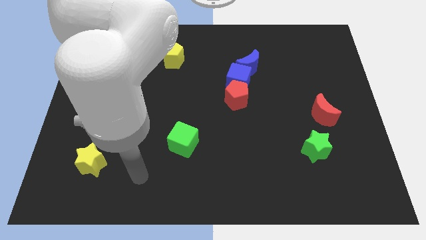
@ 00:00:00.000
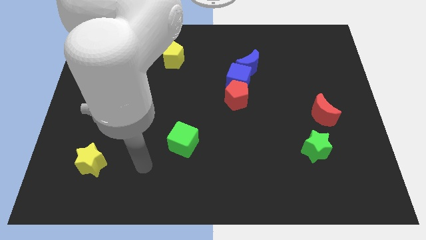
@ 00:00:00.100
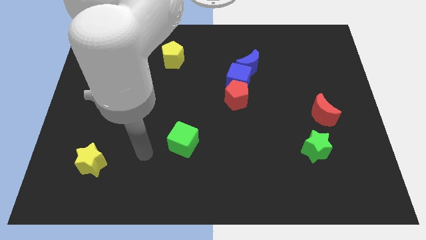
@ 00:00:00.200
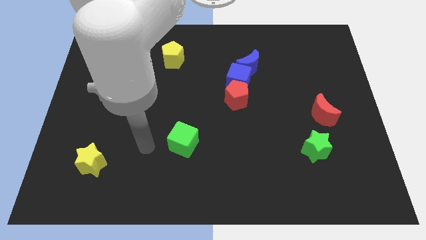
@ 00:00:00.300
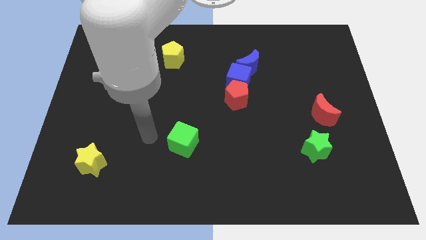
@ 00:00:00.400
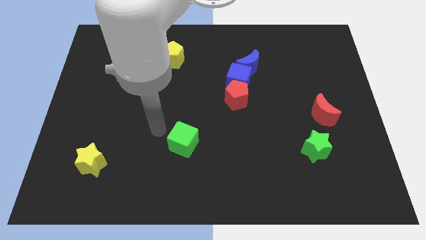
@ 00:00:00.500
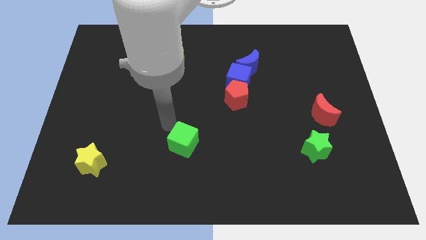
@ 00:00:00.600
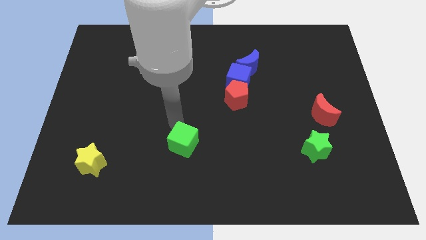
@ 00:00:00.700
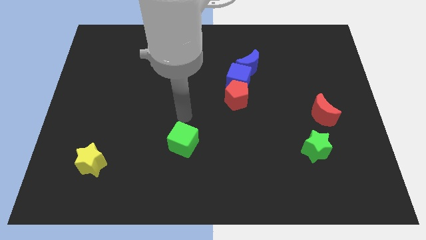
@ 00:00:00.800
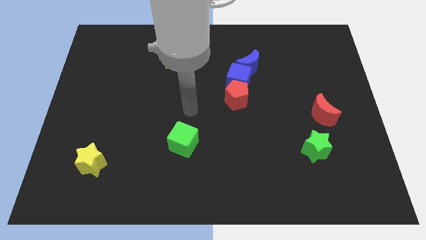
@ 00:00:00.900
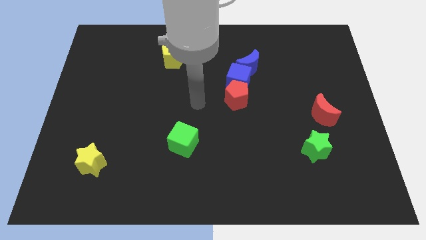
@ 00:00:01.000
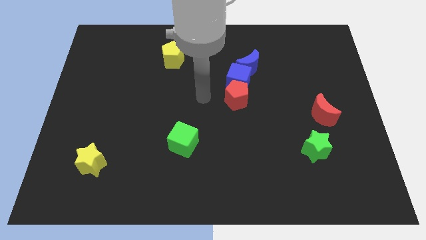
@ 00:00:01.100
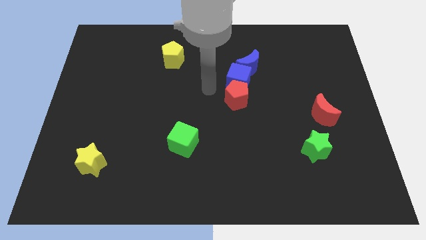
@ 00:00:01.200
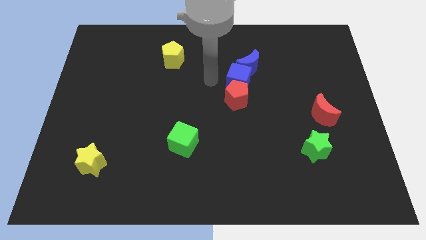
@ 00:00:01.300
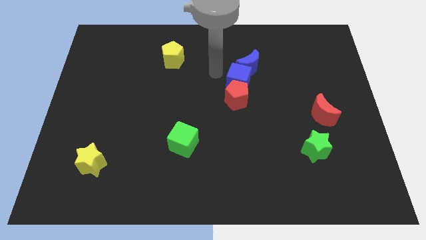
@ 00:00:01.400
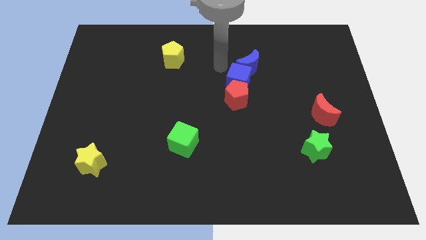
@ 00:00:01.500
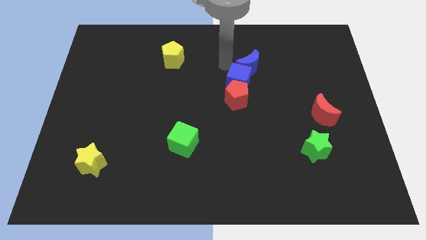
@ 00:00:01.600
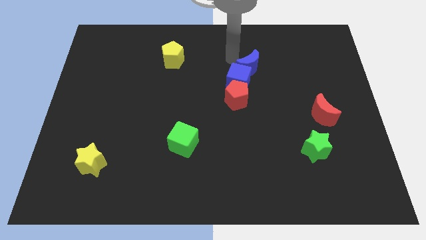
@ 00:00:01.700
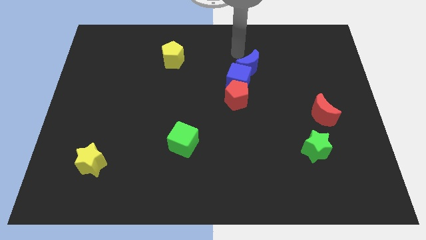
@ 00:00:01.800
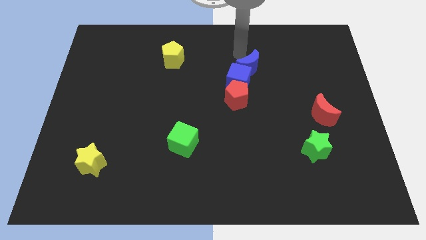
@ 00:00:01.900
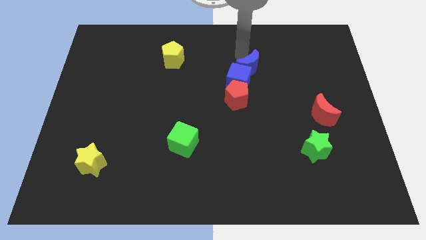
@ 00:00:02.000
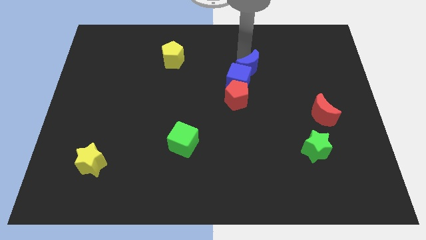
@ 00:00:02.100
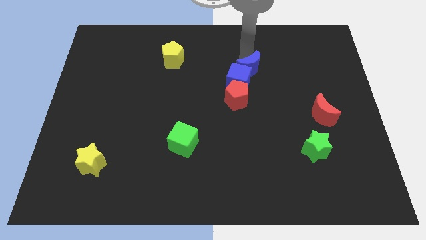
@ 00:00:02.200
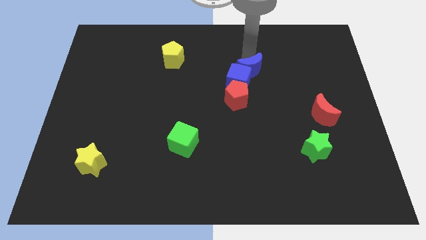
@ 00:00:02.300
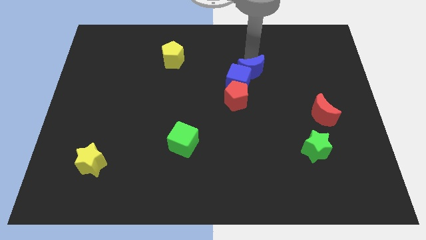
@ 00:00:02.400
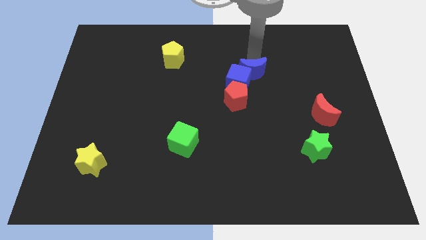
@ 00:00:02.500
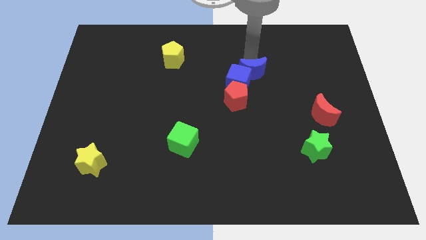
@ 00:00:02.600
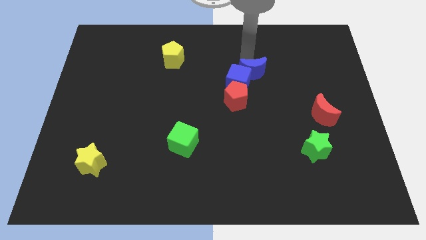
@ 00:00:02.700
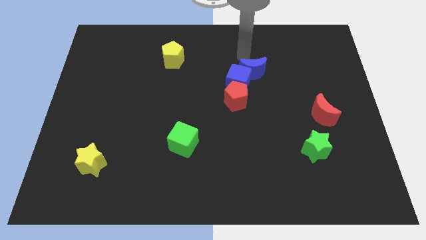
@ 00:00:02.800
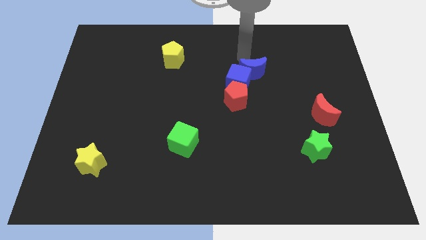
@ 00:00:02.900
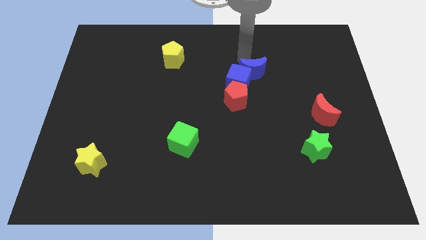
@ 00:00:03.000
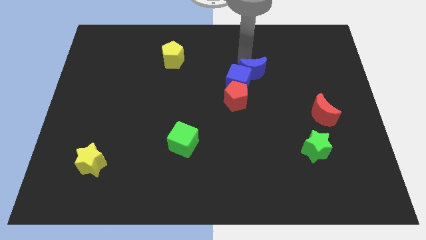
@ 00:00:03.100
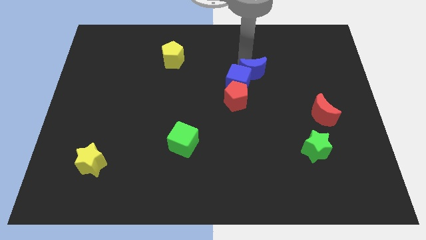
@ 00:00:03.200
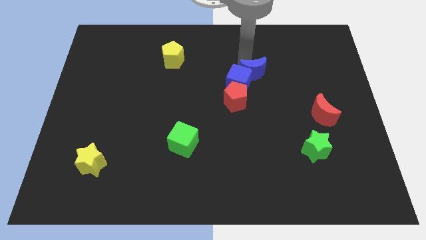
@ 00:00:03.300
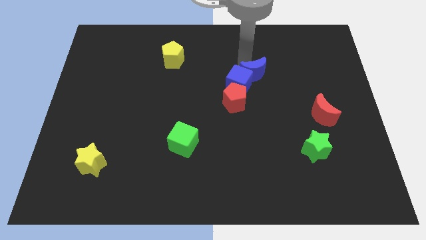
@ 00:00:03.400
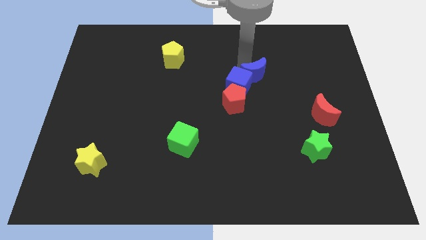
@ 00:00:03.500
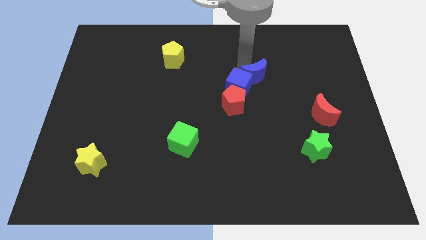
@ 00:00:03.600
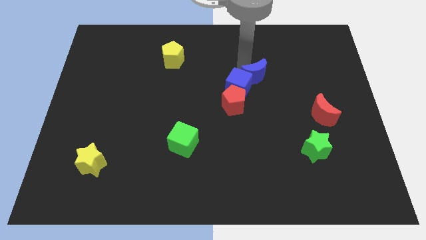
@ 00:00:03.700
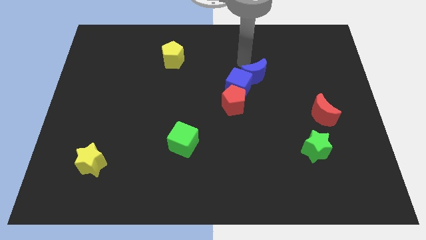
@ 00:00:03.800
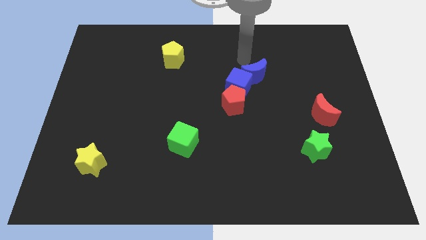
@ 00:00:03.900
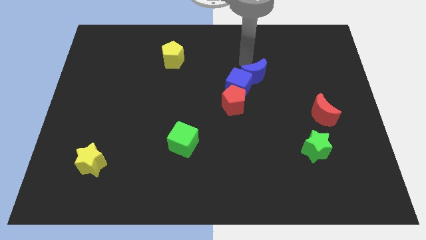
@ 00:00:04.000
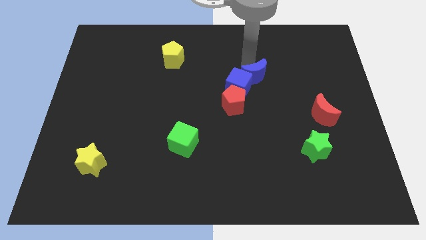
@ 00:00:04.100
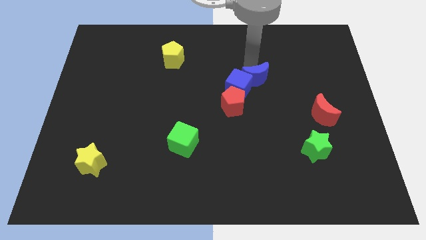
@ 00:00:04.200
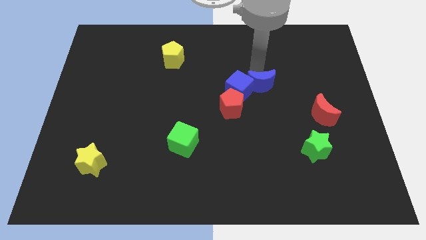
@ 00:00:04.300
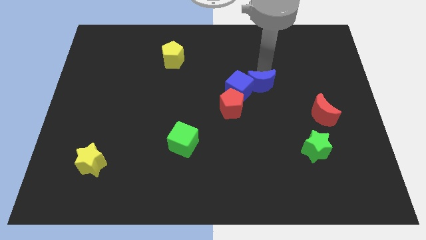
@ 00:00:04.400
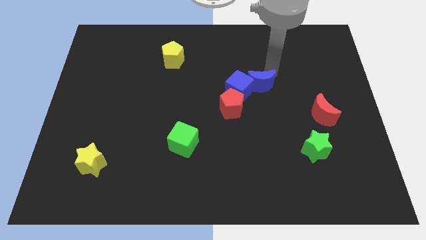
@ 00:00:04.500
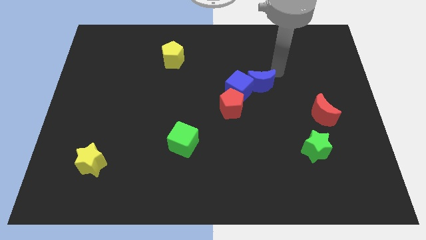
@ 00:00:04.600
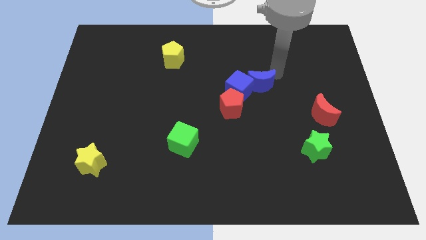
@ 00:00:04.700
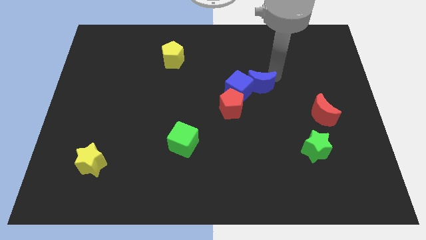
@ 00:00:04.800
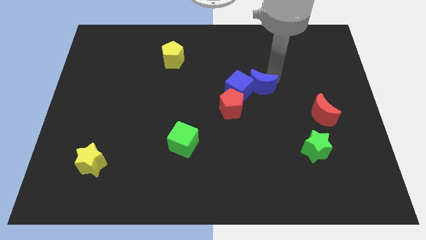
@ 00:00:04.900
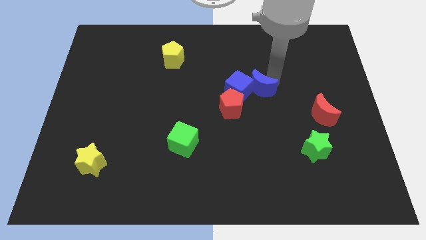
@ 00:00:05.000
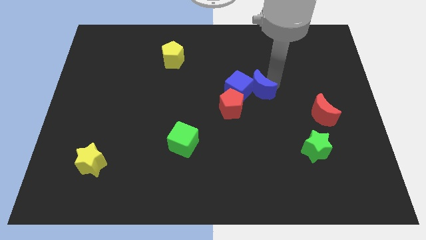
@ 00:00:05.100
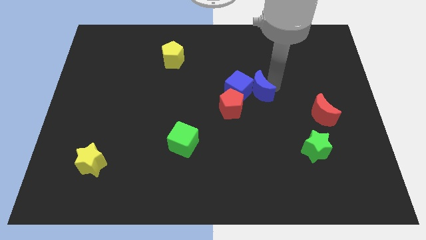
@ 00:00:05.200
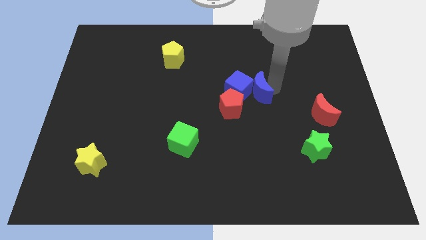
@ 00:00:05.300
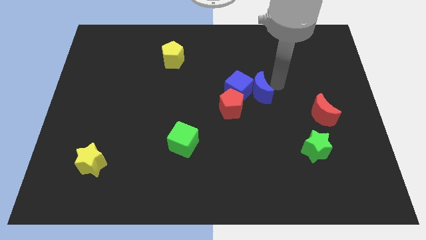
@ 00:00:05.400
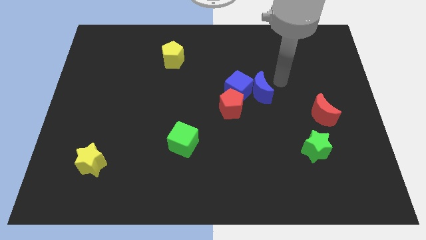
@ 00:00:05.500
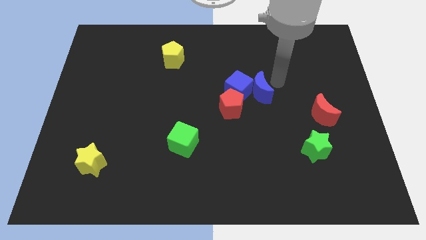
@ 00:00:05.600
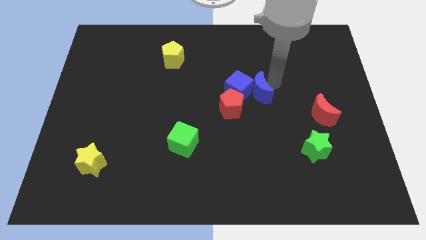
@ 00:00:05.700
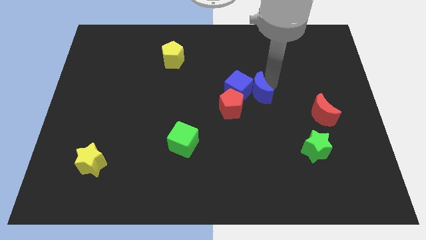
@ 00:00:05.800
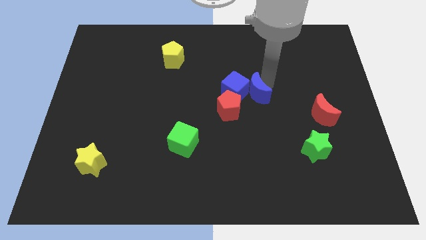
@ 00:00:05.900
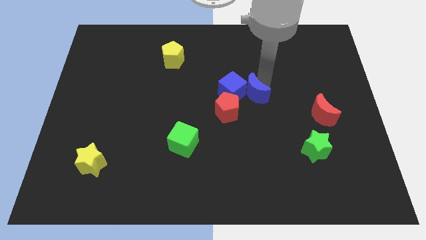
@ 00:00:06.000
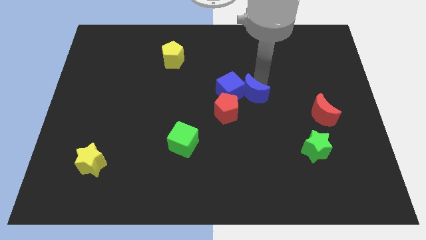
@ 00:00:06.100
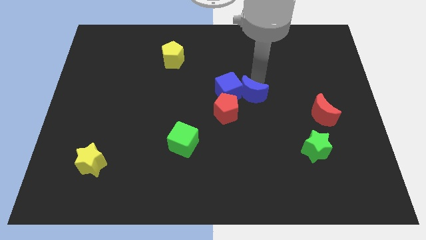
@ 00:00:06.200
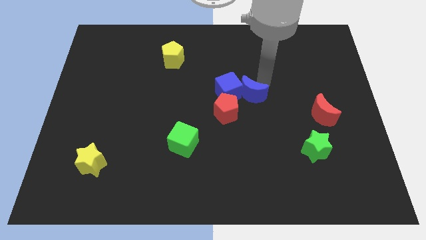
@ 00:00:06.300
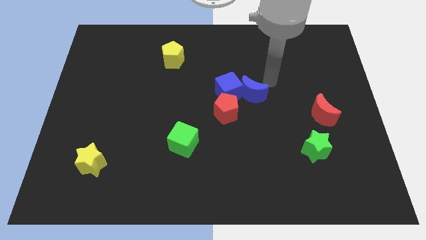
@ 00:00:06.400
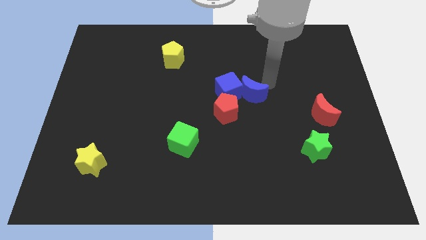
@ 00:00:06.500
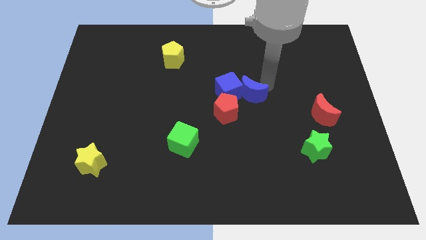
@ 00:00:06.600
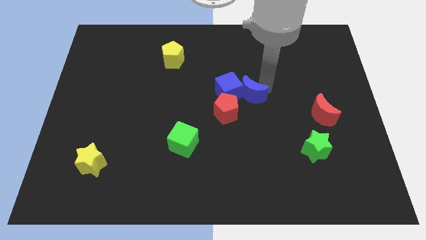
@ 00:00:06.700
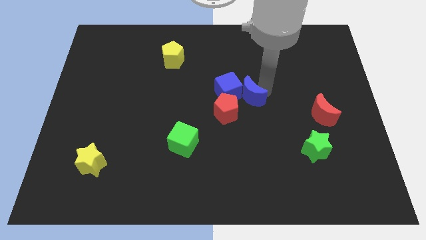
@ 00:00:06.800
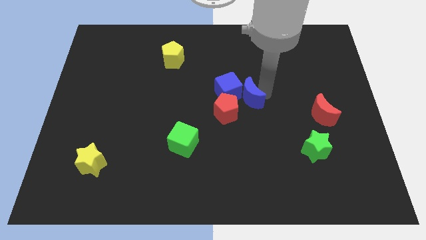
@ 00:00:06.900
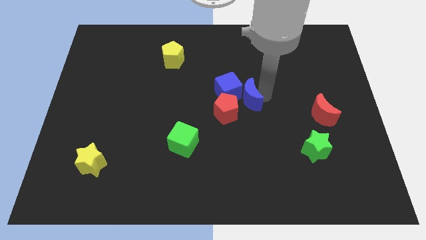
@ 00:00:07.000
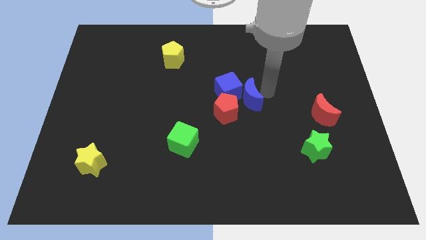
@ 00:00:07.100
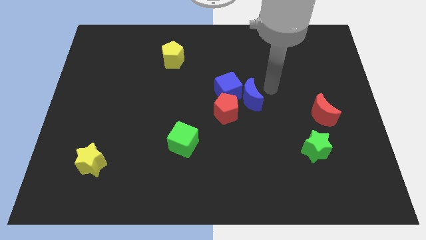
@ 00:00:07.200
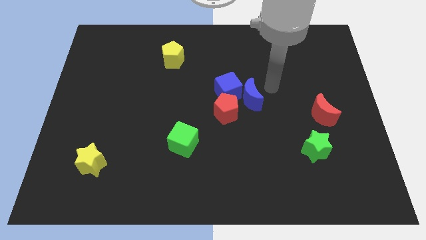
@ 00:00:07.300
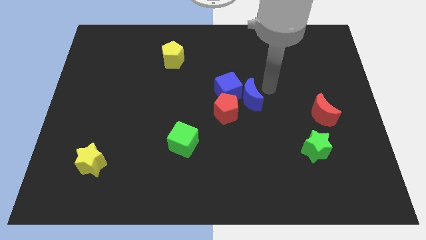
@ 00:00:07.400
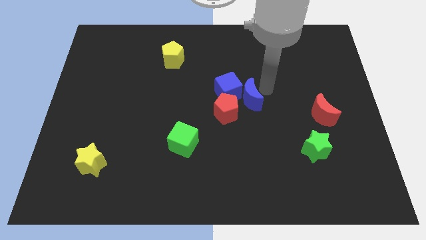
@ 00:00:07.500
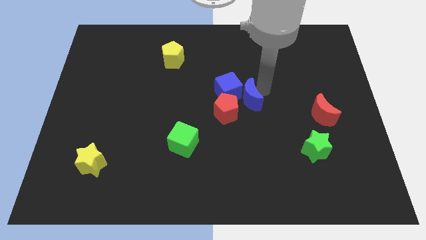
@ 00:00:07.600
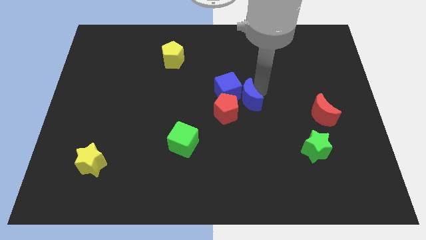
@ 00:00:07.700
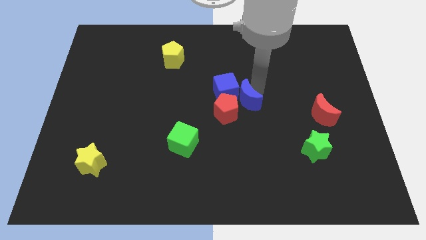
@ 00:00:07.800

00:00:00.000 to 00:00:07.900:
slide the blue moon close to the red pentagon
